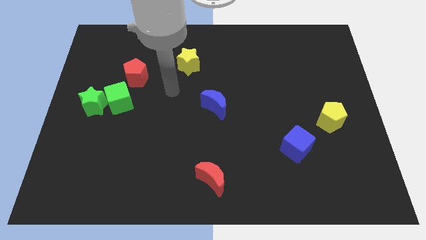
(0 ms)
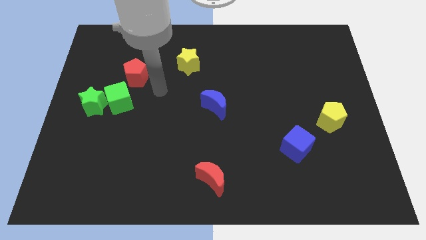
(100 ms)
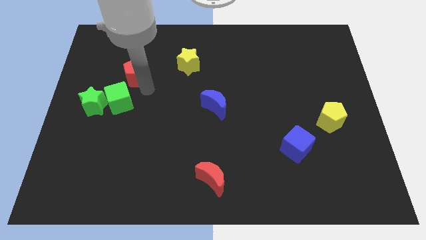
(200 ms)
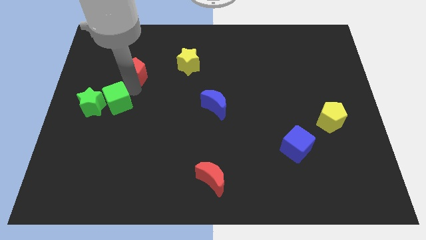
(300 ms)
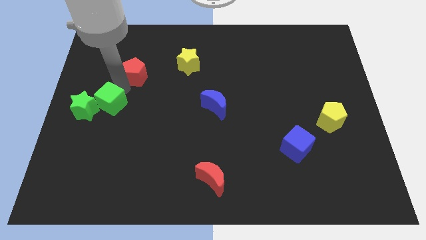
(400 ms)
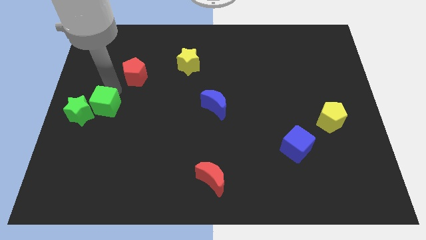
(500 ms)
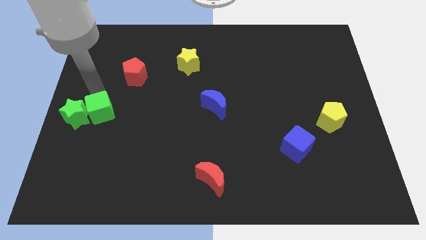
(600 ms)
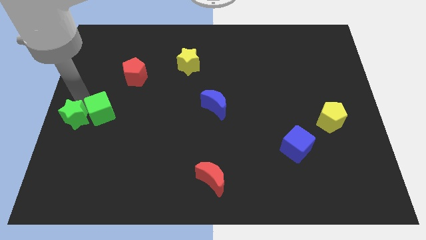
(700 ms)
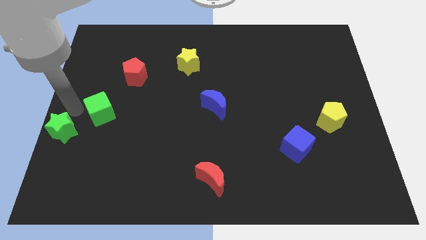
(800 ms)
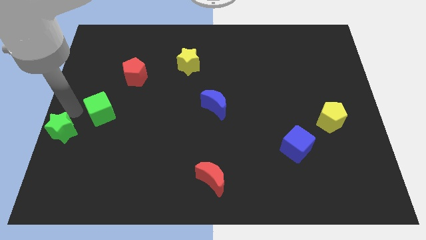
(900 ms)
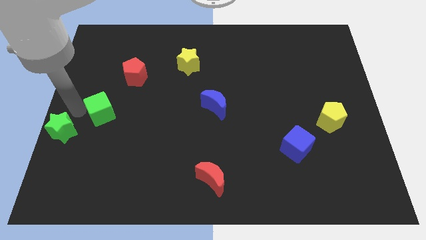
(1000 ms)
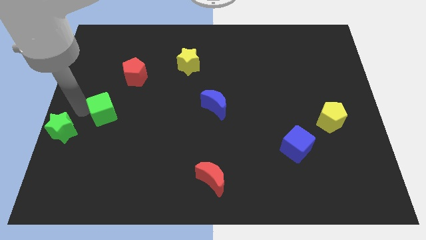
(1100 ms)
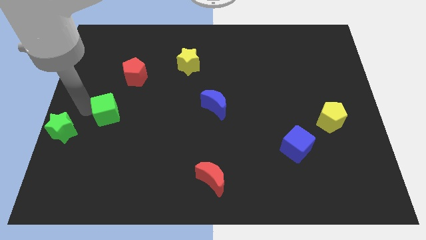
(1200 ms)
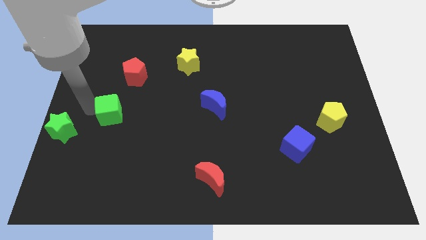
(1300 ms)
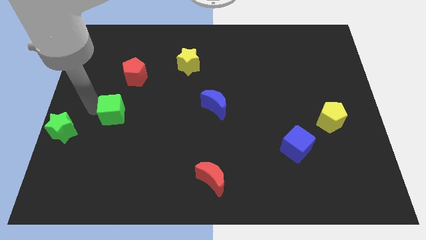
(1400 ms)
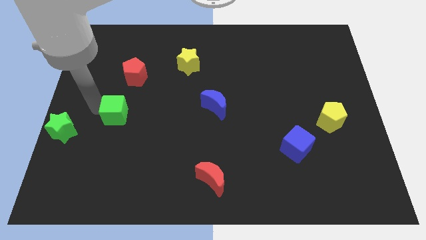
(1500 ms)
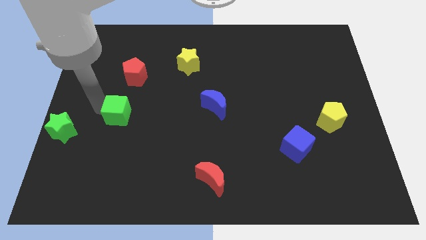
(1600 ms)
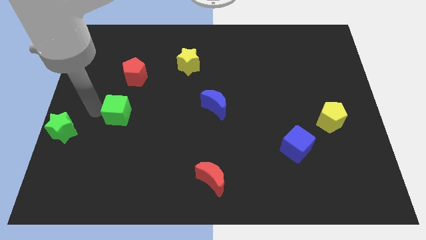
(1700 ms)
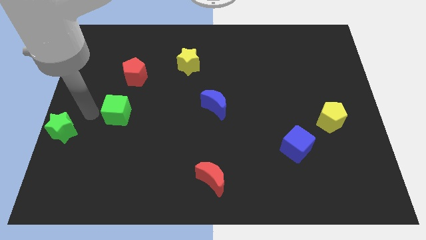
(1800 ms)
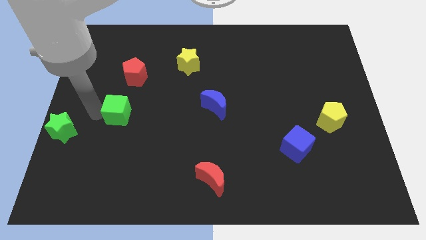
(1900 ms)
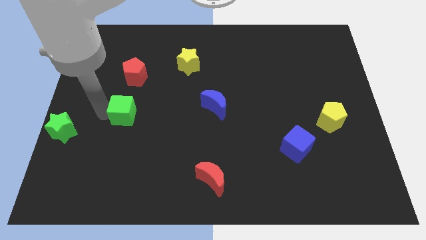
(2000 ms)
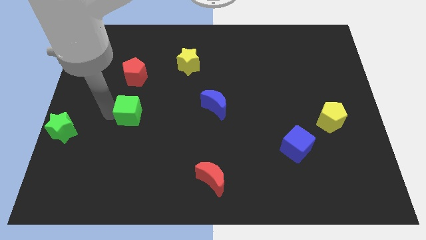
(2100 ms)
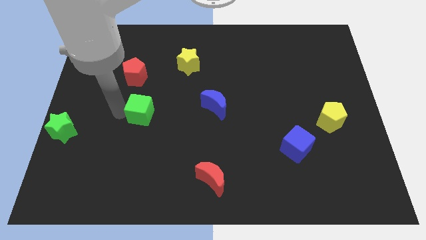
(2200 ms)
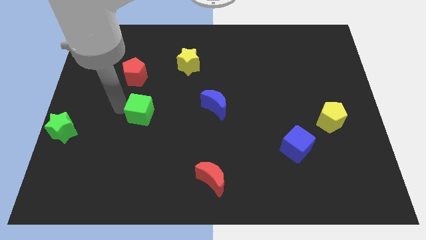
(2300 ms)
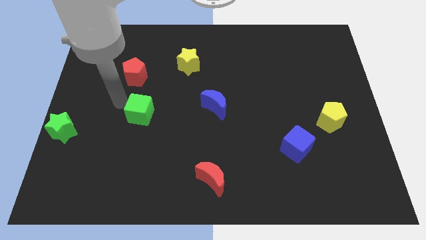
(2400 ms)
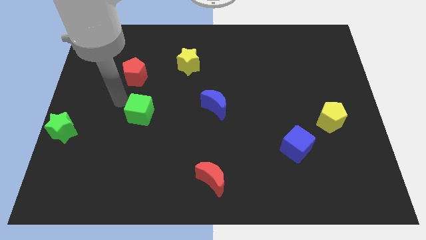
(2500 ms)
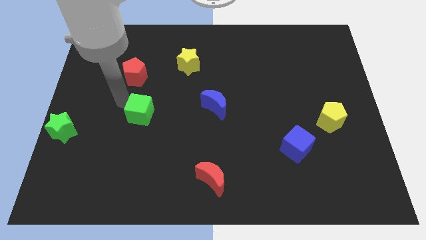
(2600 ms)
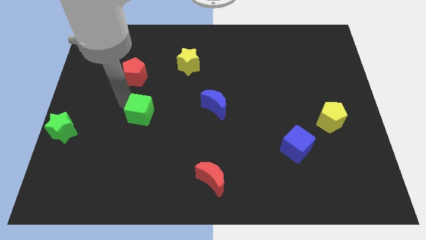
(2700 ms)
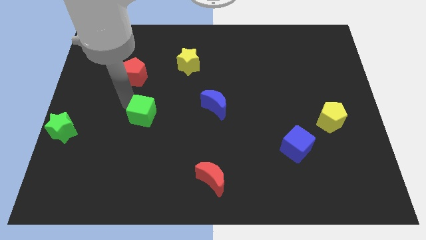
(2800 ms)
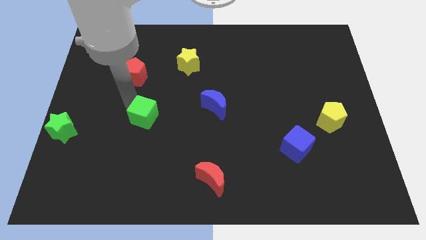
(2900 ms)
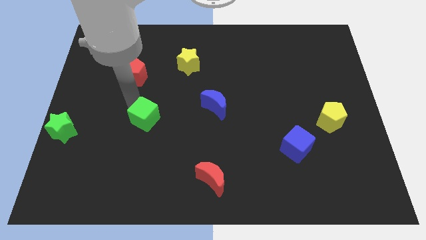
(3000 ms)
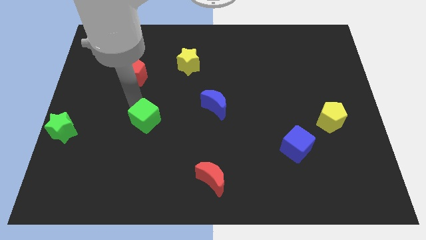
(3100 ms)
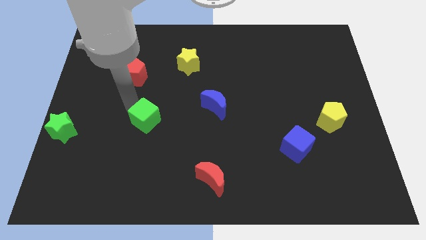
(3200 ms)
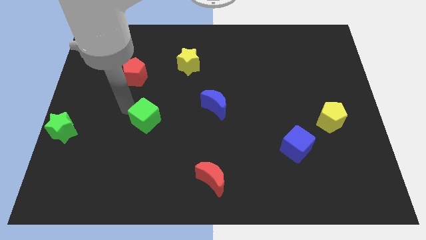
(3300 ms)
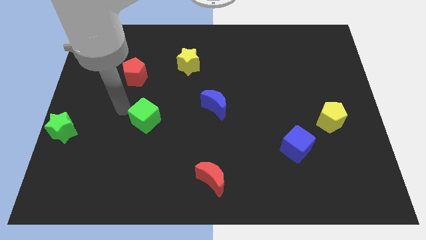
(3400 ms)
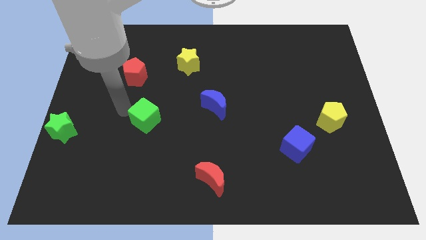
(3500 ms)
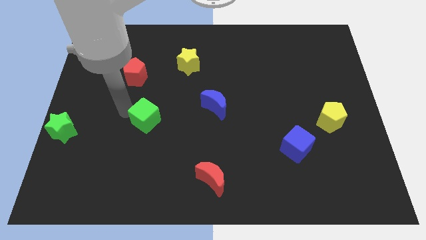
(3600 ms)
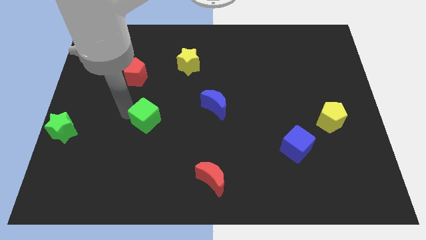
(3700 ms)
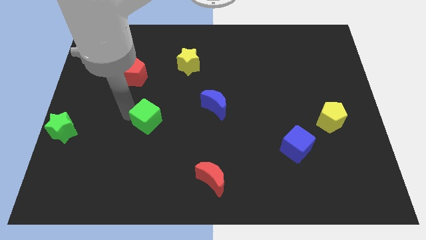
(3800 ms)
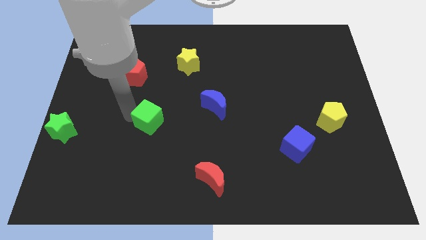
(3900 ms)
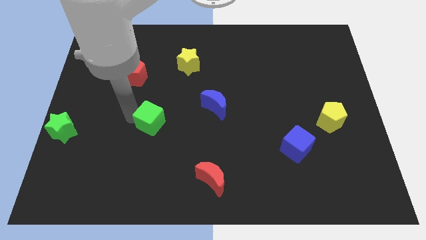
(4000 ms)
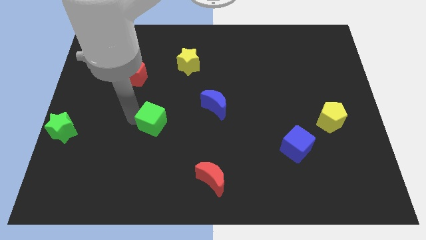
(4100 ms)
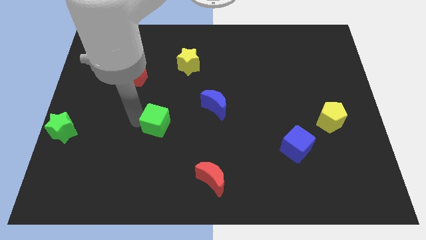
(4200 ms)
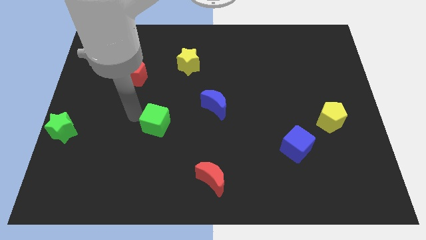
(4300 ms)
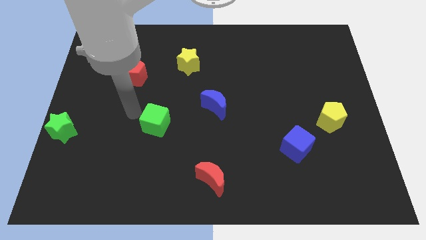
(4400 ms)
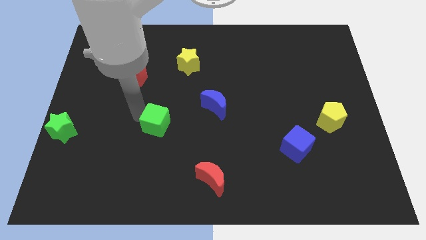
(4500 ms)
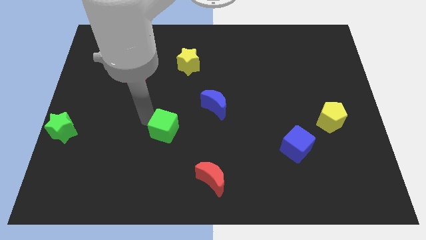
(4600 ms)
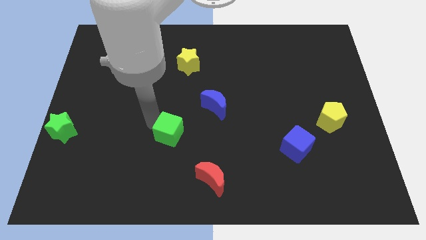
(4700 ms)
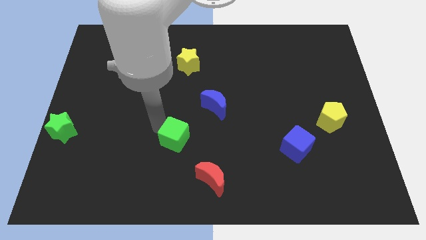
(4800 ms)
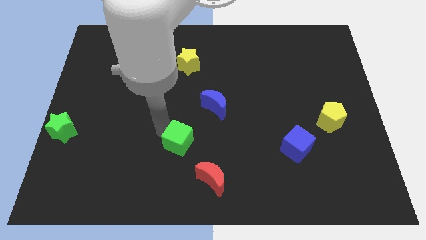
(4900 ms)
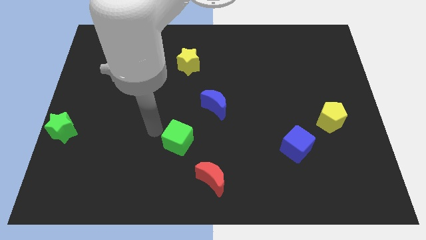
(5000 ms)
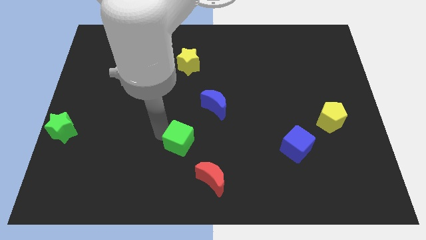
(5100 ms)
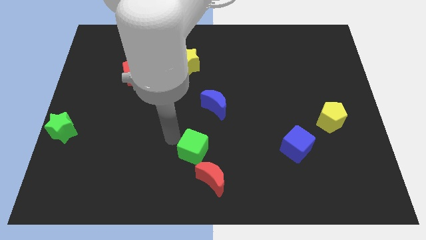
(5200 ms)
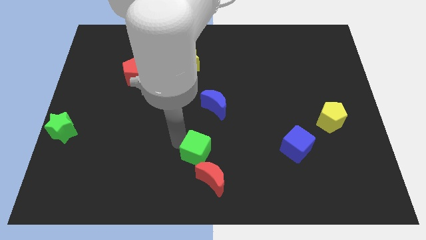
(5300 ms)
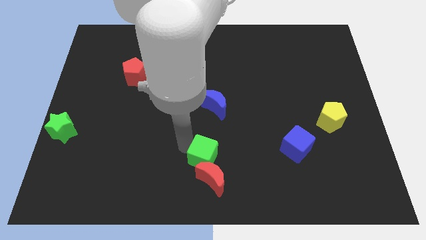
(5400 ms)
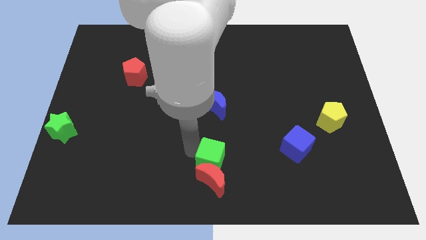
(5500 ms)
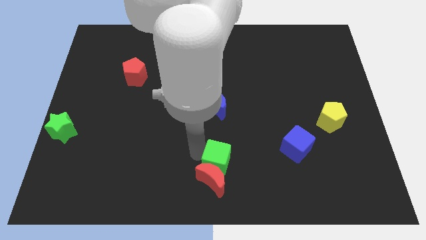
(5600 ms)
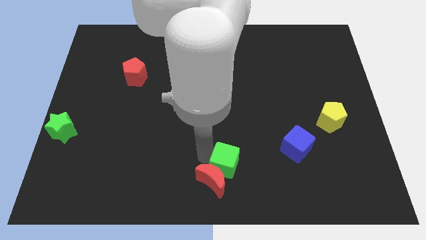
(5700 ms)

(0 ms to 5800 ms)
slide the green cube to the right side of the red moon

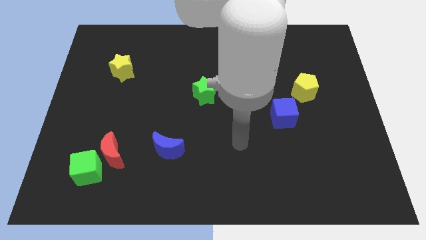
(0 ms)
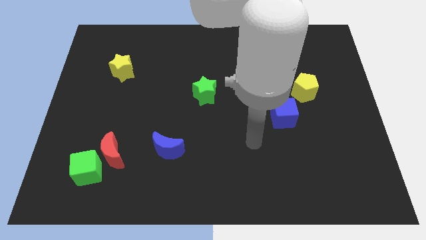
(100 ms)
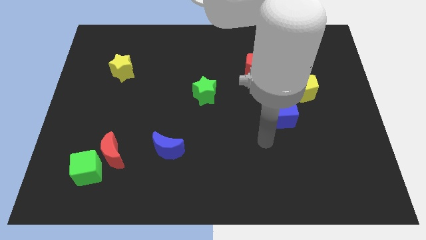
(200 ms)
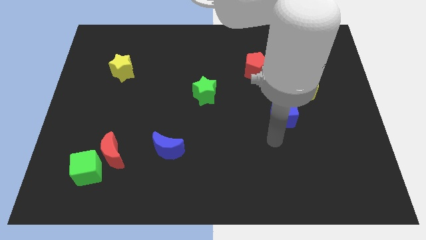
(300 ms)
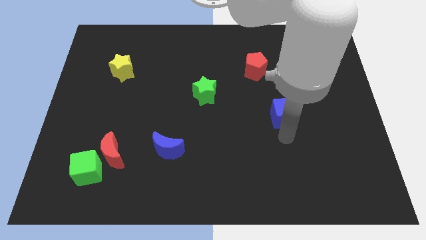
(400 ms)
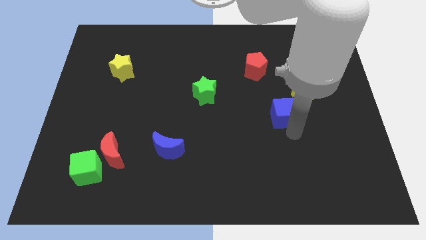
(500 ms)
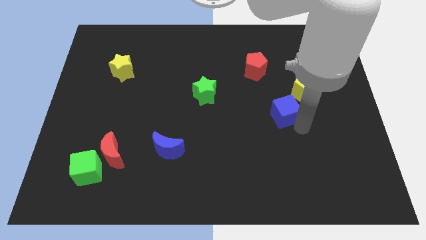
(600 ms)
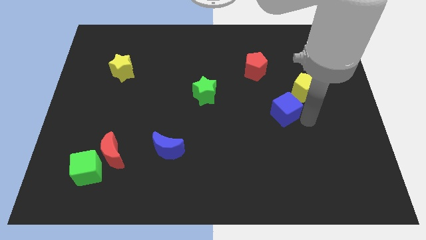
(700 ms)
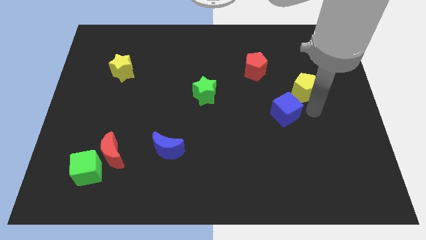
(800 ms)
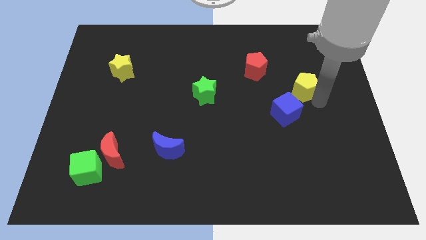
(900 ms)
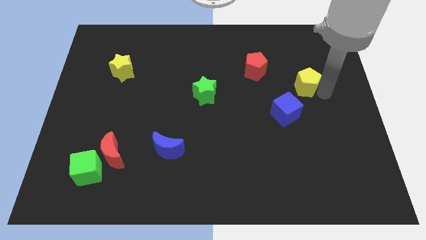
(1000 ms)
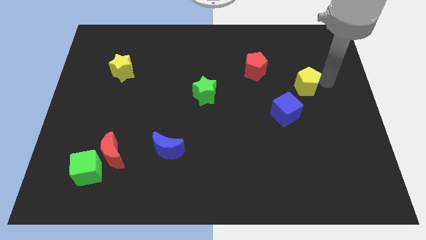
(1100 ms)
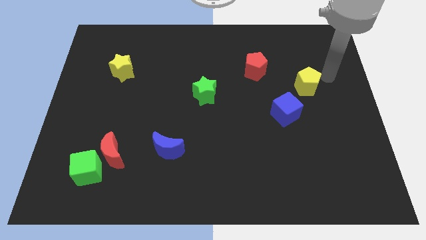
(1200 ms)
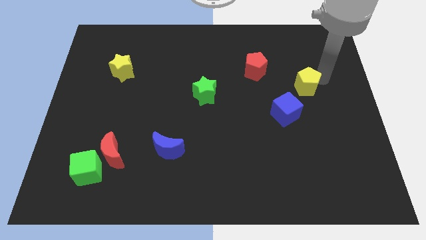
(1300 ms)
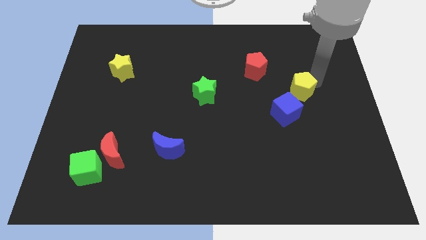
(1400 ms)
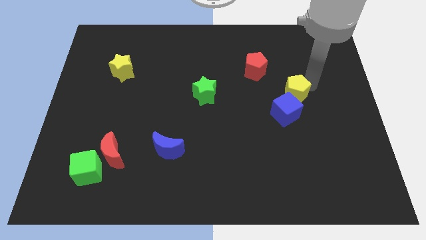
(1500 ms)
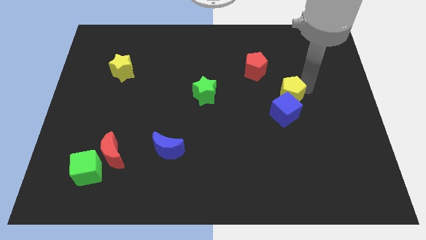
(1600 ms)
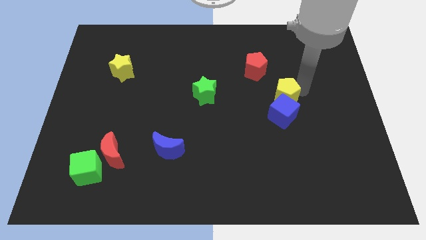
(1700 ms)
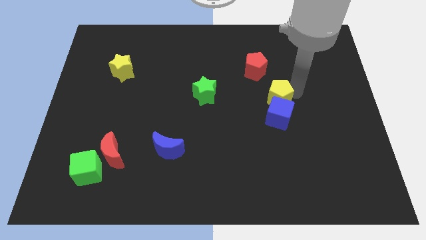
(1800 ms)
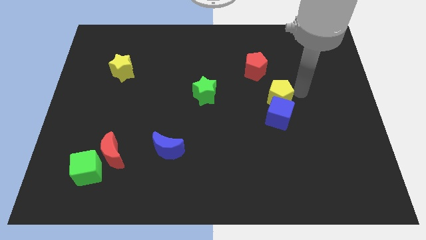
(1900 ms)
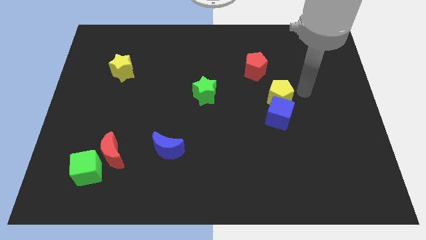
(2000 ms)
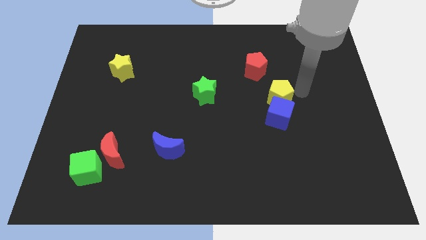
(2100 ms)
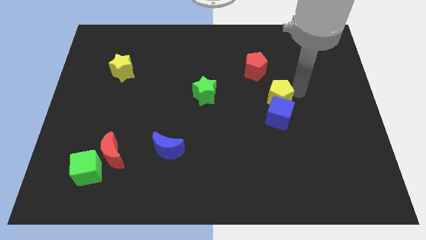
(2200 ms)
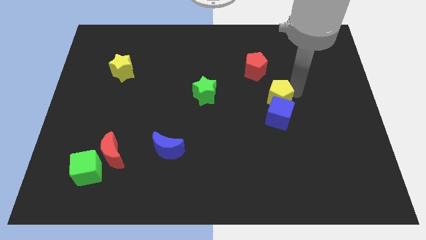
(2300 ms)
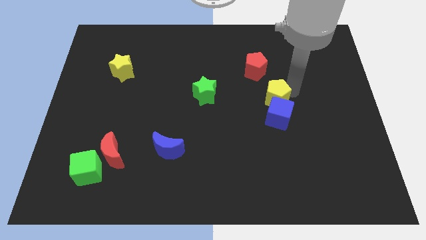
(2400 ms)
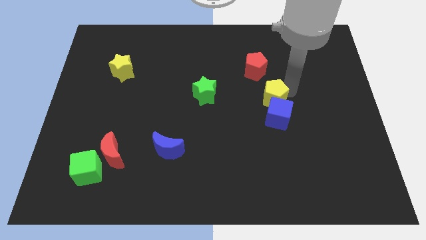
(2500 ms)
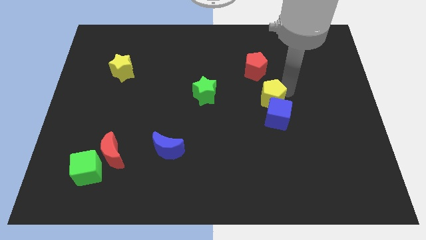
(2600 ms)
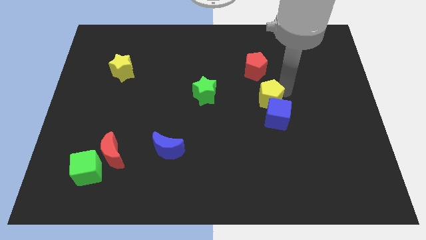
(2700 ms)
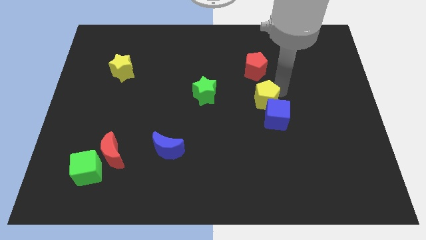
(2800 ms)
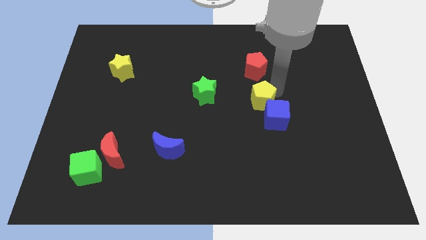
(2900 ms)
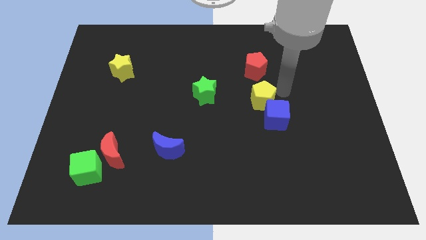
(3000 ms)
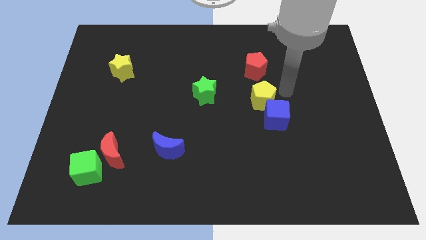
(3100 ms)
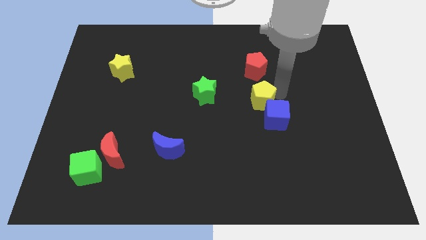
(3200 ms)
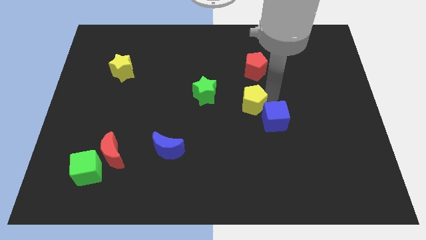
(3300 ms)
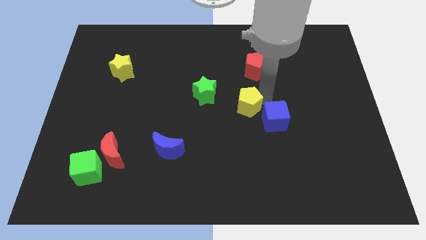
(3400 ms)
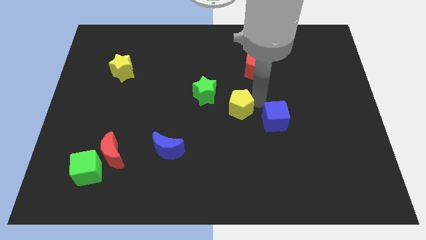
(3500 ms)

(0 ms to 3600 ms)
push the yellow pentagon diagonally down and to the right of the green star
